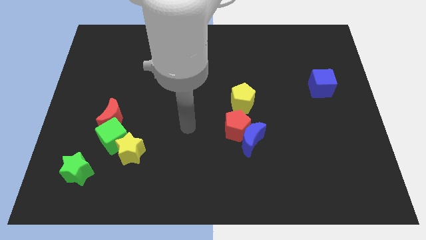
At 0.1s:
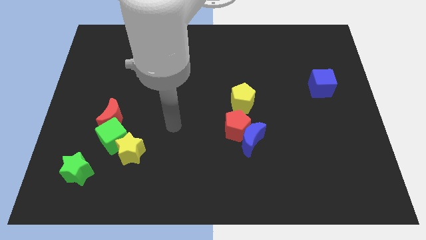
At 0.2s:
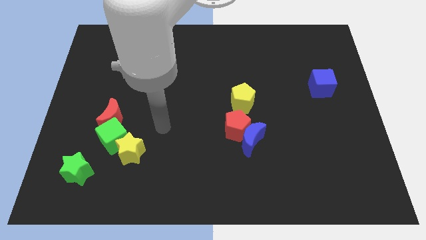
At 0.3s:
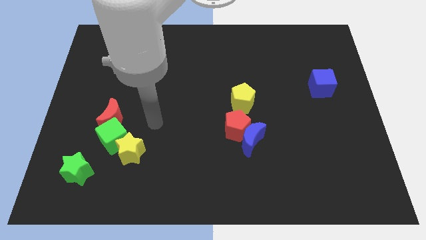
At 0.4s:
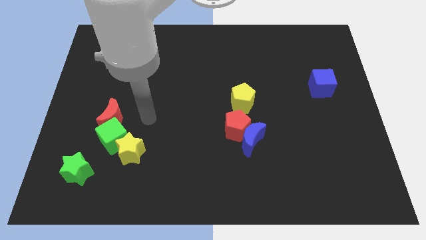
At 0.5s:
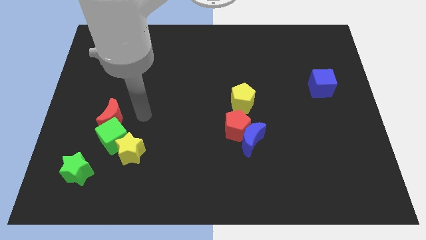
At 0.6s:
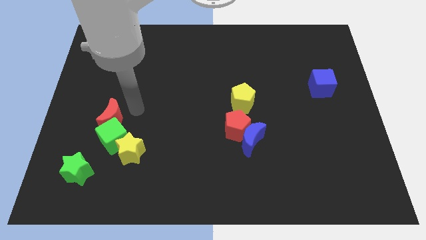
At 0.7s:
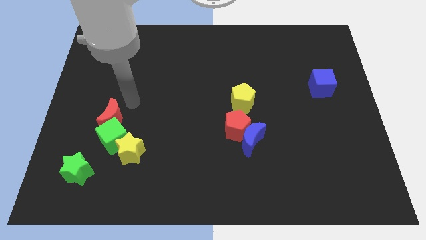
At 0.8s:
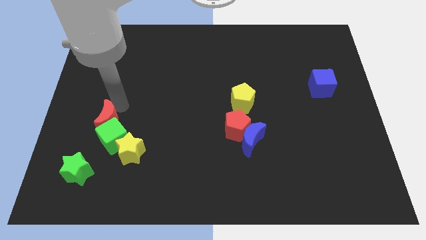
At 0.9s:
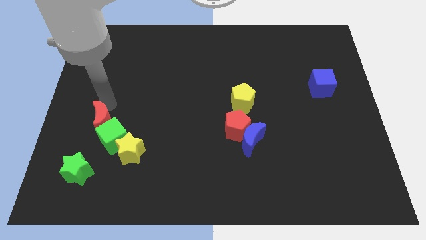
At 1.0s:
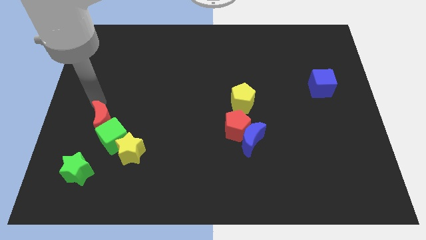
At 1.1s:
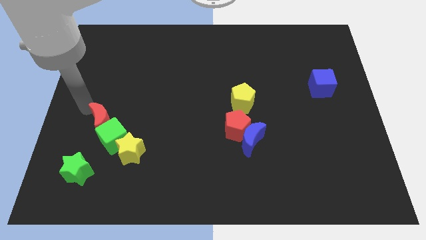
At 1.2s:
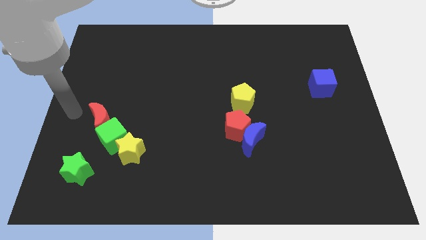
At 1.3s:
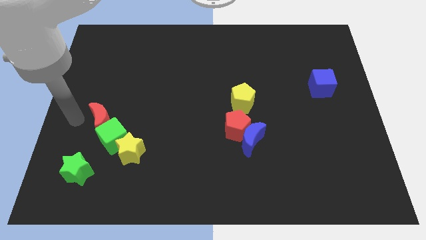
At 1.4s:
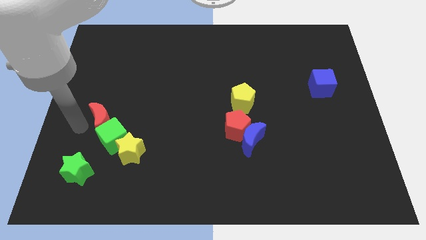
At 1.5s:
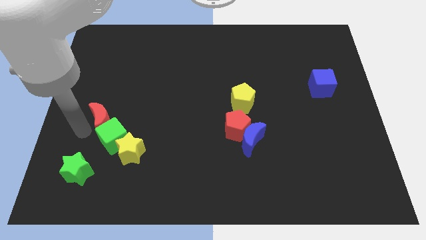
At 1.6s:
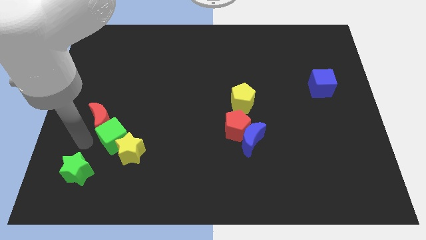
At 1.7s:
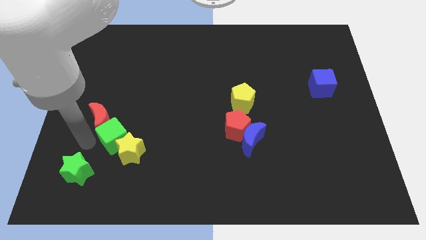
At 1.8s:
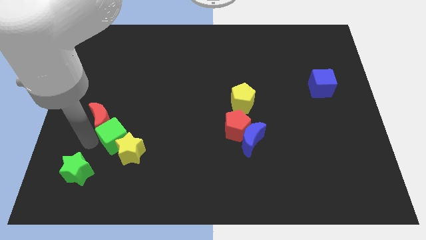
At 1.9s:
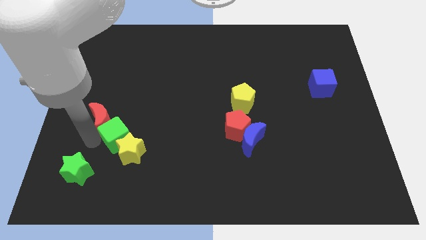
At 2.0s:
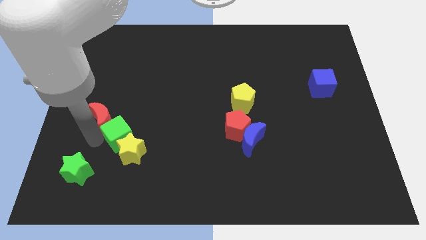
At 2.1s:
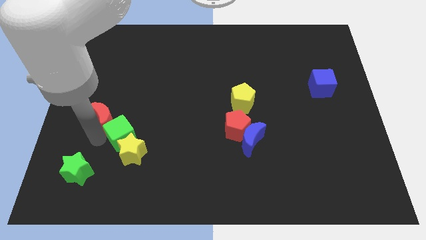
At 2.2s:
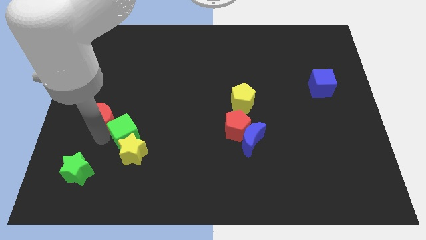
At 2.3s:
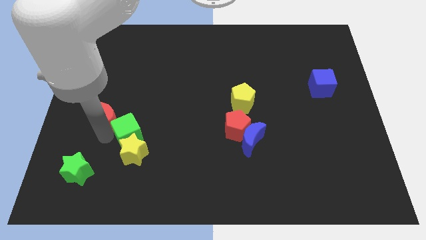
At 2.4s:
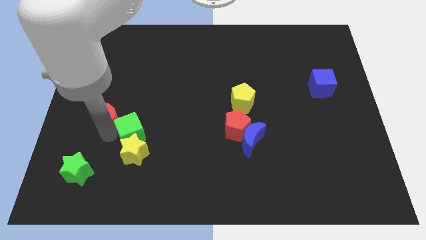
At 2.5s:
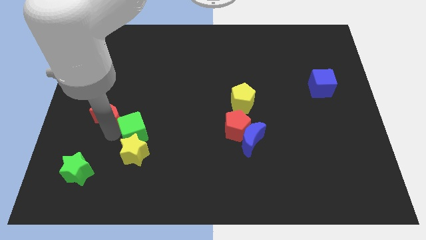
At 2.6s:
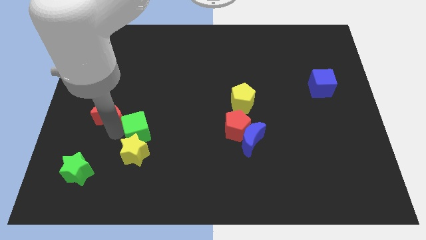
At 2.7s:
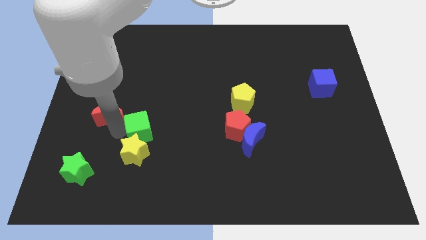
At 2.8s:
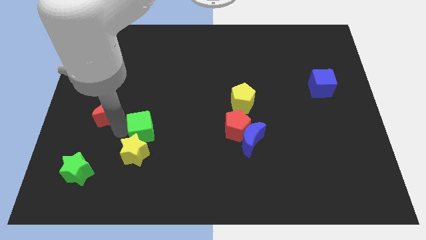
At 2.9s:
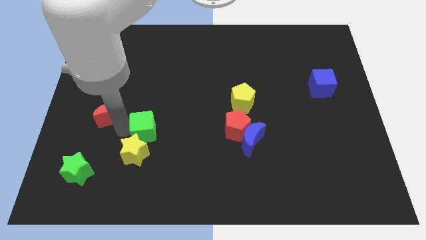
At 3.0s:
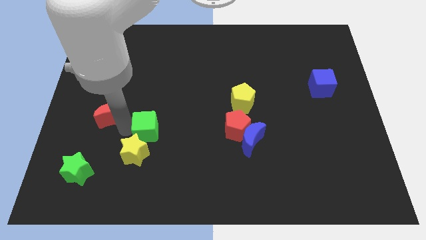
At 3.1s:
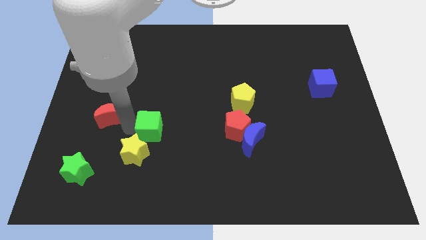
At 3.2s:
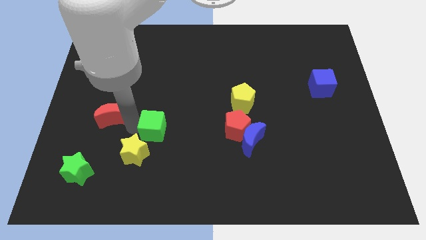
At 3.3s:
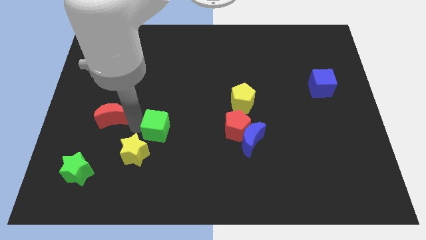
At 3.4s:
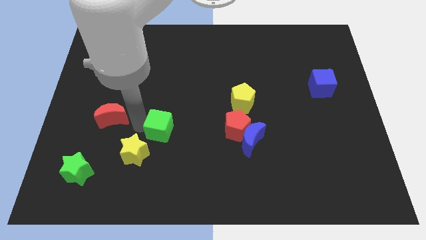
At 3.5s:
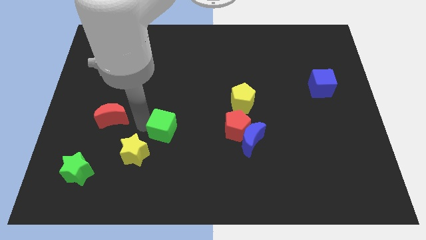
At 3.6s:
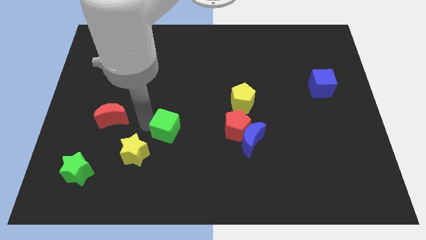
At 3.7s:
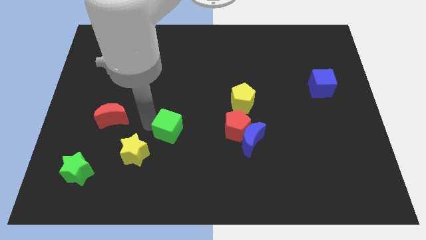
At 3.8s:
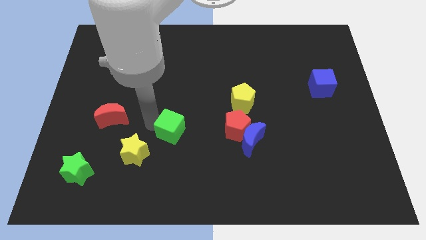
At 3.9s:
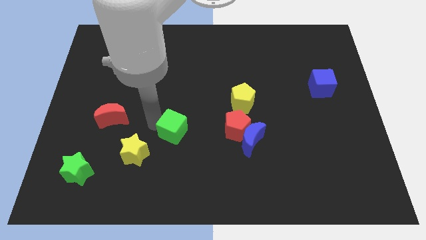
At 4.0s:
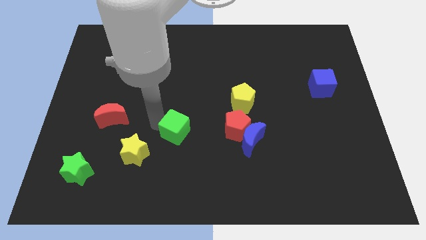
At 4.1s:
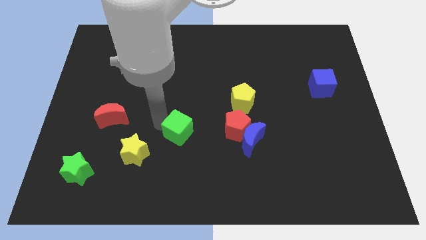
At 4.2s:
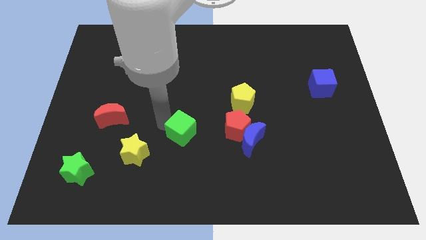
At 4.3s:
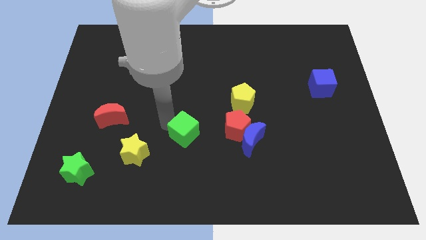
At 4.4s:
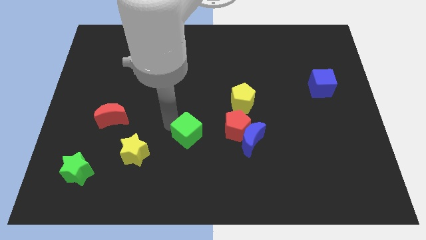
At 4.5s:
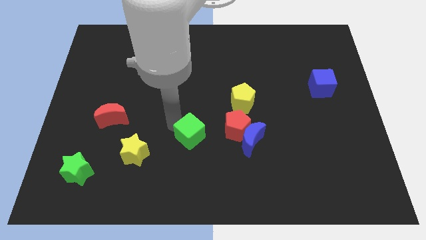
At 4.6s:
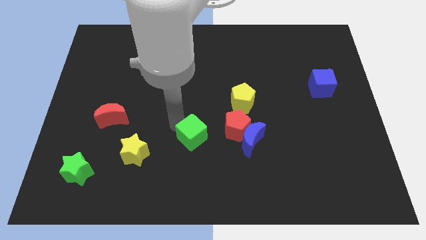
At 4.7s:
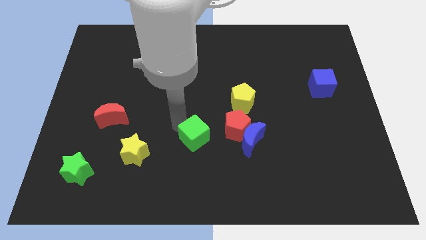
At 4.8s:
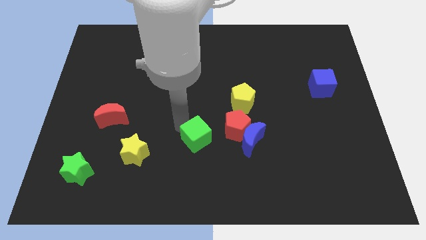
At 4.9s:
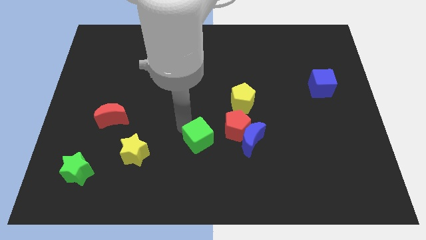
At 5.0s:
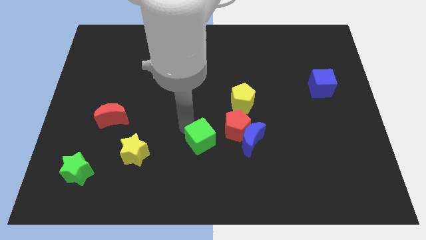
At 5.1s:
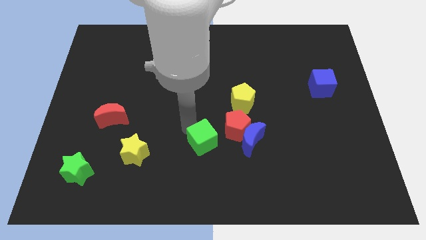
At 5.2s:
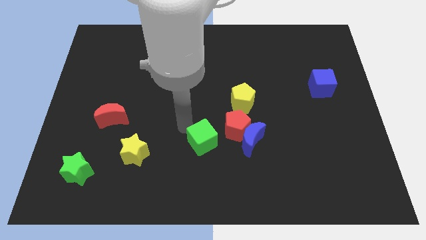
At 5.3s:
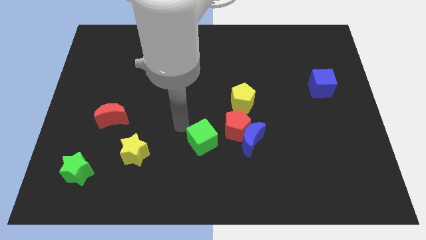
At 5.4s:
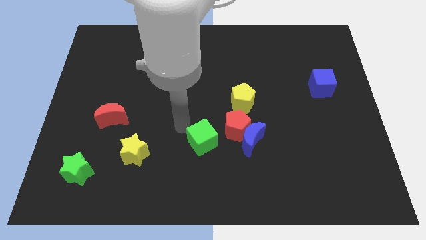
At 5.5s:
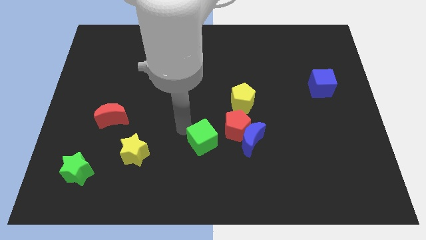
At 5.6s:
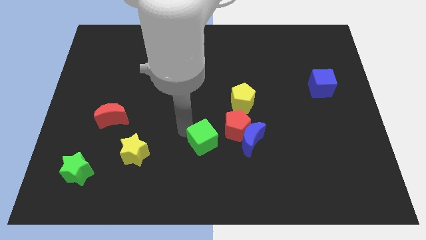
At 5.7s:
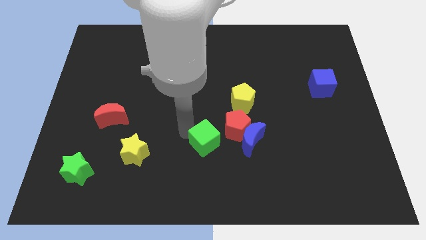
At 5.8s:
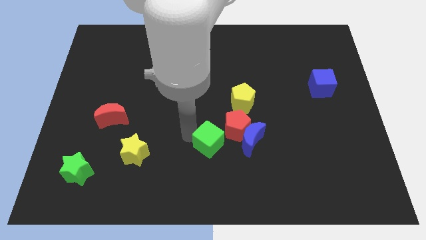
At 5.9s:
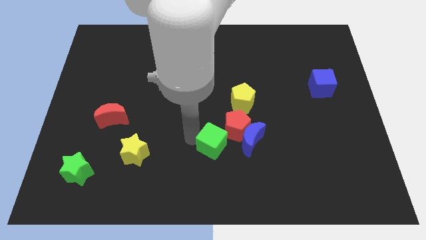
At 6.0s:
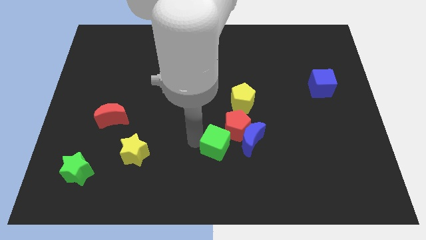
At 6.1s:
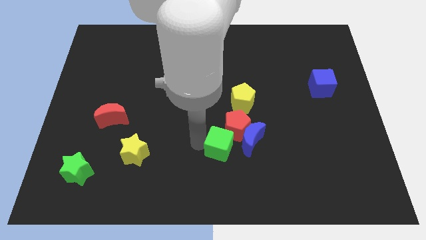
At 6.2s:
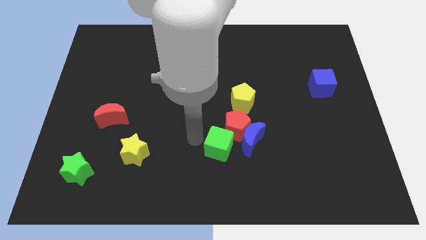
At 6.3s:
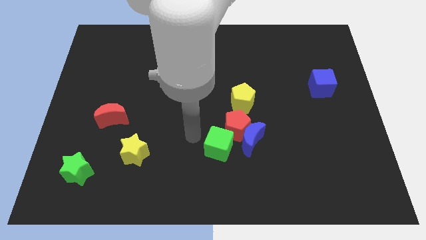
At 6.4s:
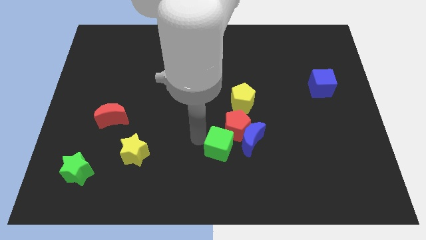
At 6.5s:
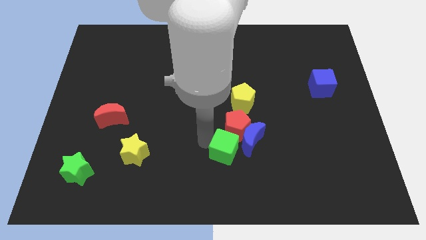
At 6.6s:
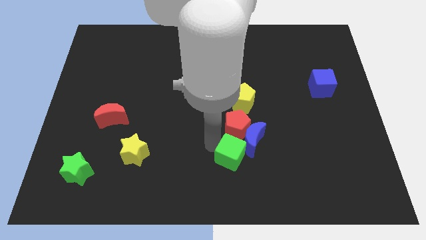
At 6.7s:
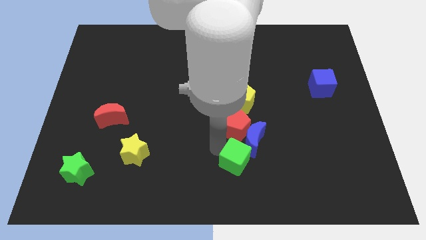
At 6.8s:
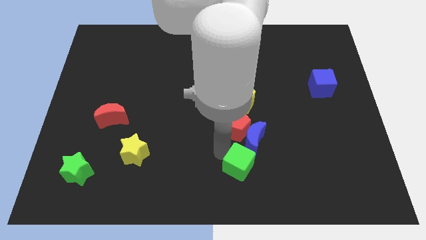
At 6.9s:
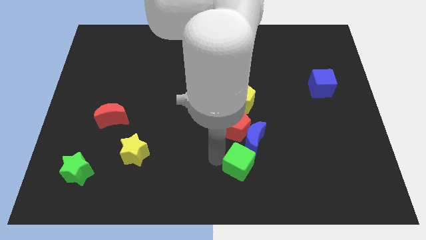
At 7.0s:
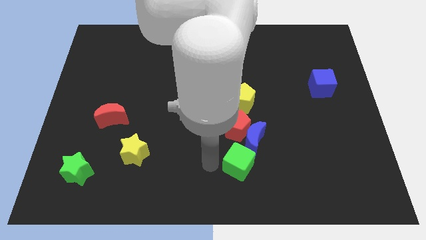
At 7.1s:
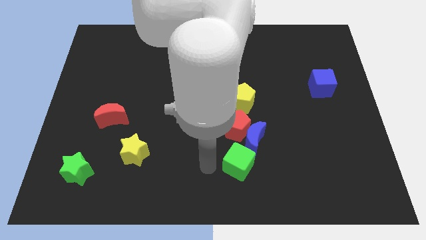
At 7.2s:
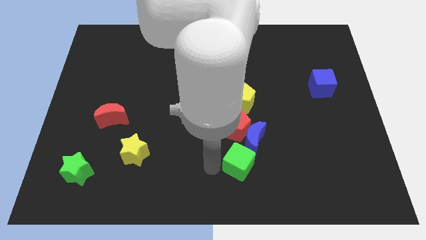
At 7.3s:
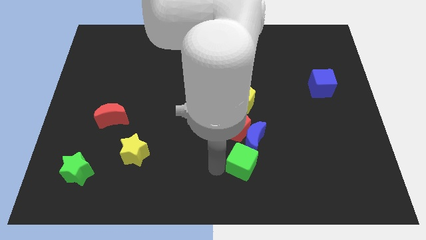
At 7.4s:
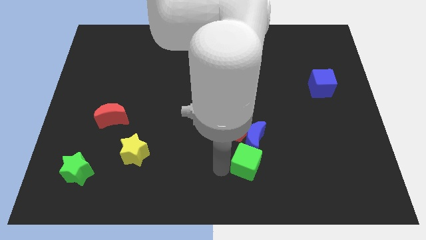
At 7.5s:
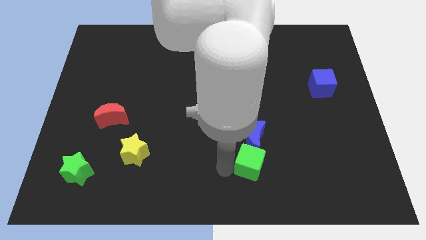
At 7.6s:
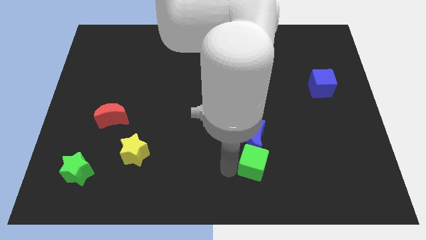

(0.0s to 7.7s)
move the green cube diagonally down and to the right of the blue moon
